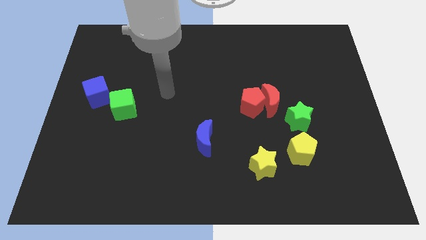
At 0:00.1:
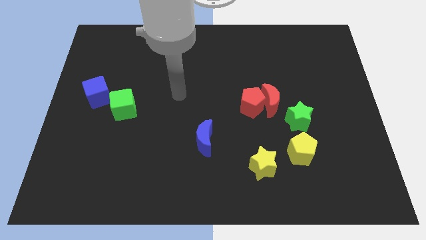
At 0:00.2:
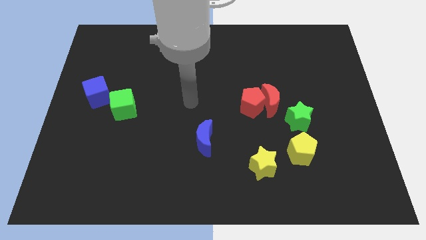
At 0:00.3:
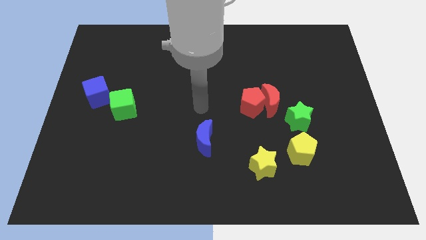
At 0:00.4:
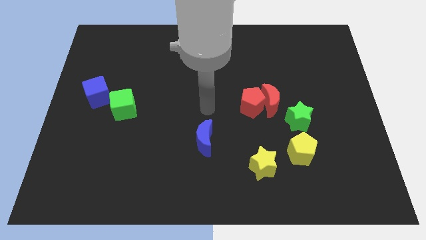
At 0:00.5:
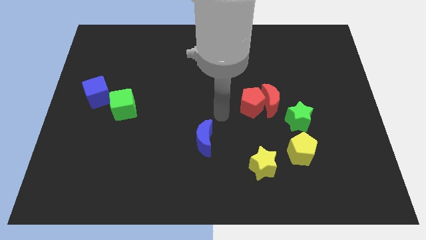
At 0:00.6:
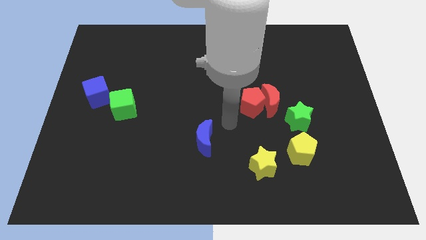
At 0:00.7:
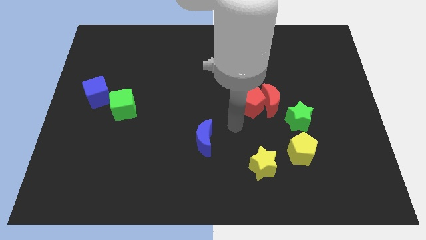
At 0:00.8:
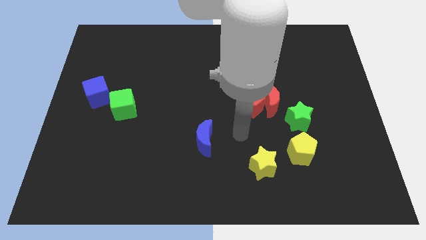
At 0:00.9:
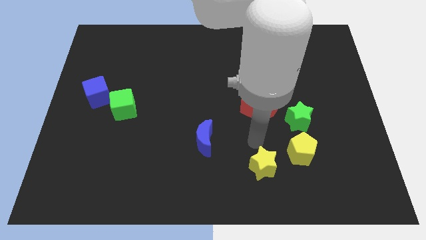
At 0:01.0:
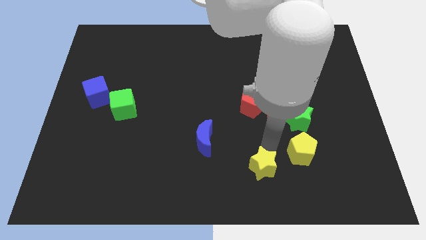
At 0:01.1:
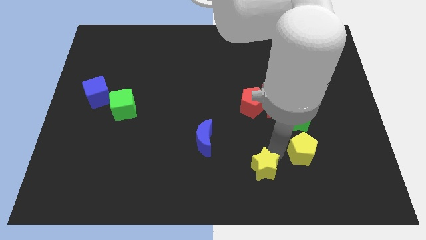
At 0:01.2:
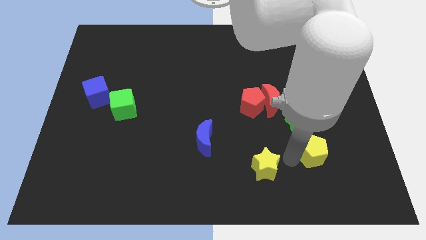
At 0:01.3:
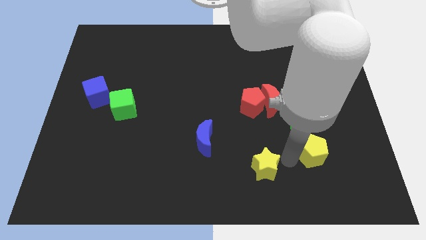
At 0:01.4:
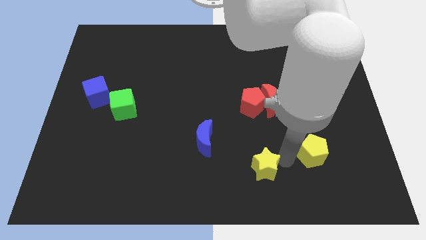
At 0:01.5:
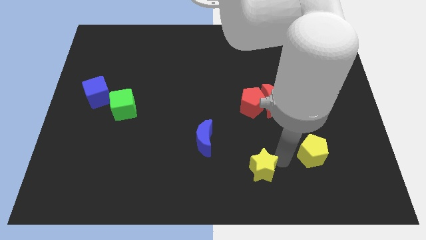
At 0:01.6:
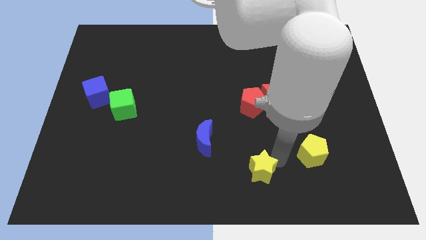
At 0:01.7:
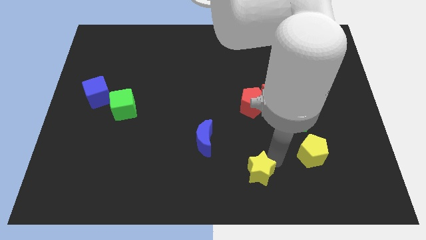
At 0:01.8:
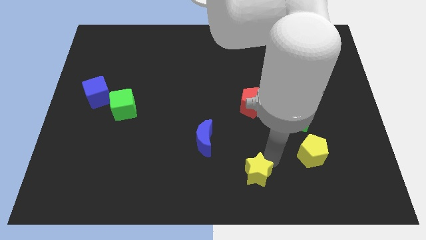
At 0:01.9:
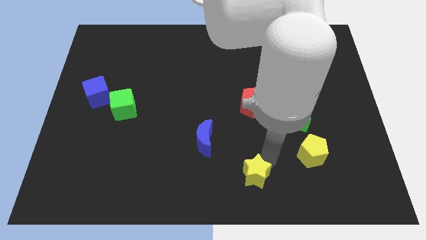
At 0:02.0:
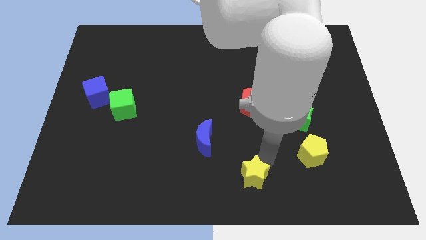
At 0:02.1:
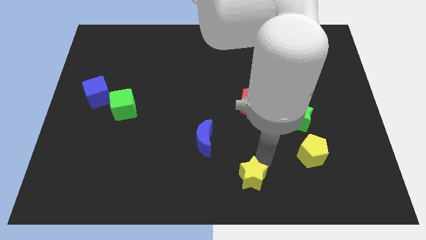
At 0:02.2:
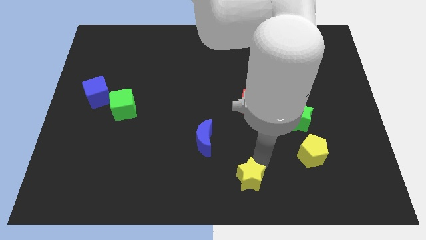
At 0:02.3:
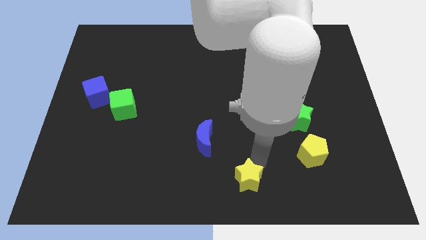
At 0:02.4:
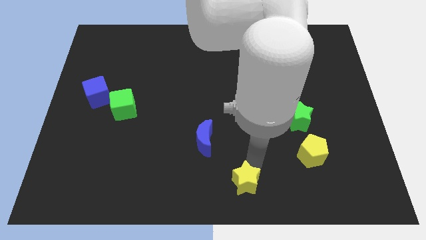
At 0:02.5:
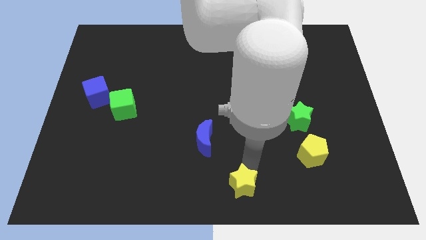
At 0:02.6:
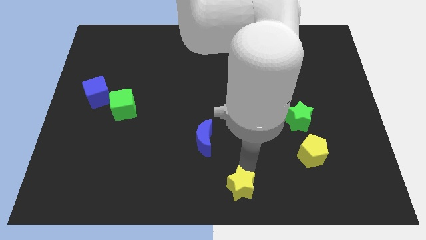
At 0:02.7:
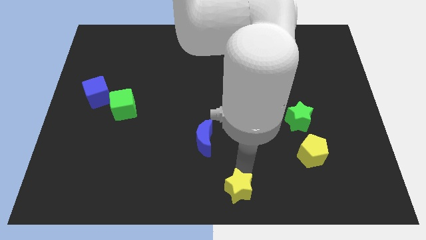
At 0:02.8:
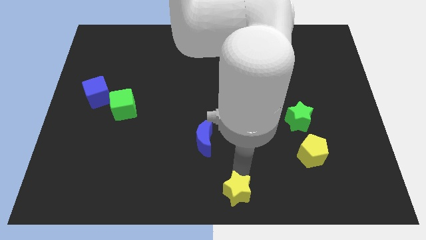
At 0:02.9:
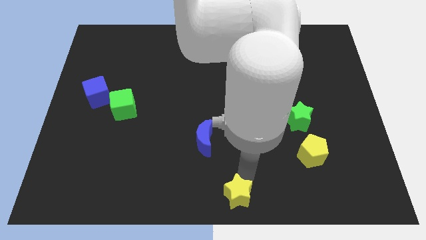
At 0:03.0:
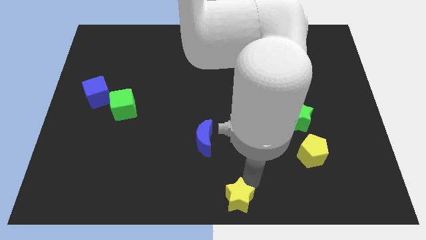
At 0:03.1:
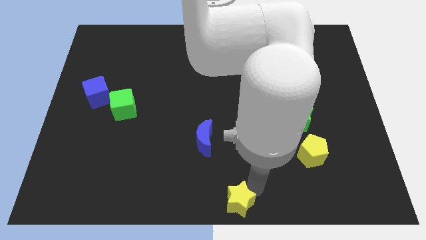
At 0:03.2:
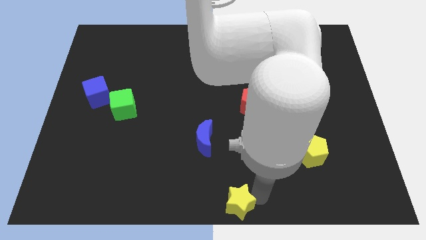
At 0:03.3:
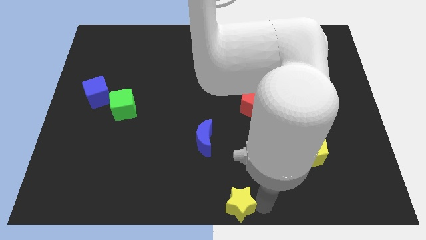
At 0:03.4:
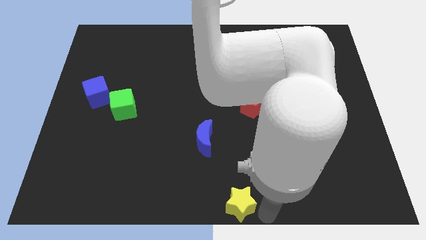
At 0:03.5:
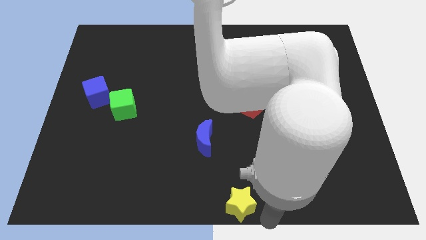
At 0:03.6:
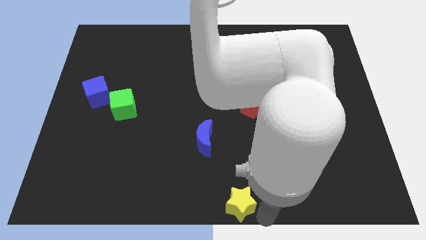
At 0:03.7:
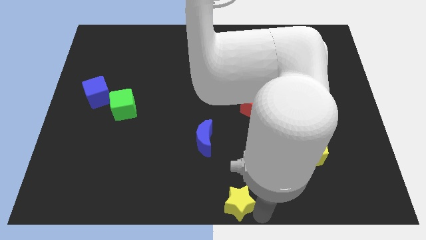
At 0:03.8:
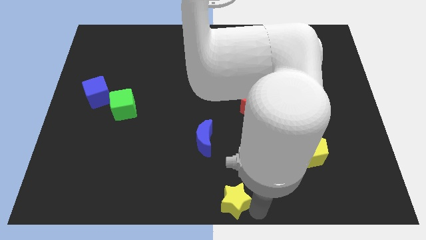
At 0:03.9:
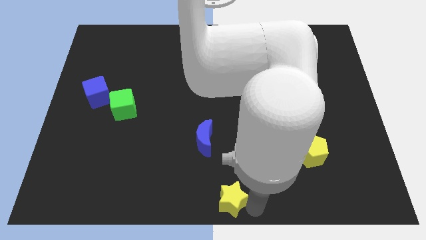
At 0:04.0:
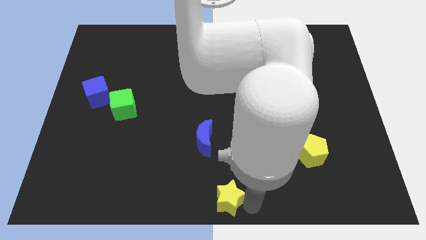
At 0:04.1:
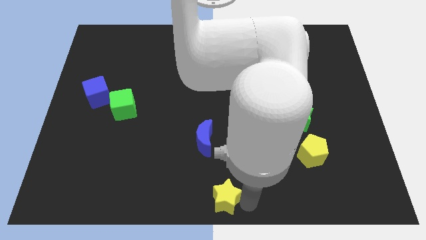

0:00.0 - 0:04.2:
move the yellow star below the blue moon

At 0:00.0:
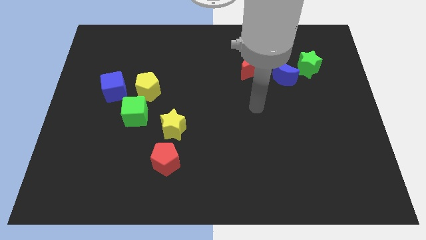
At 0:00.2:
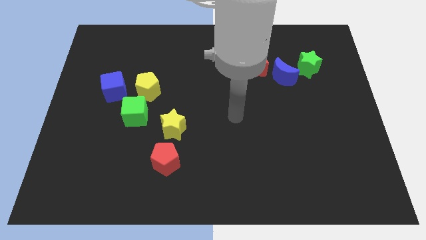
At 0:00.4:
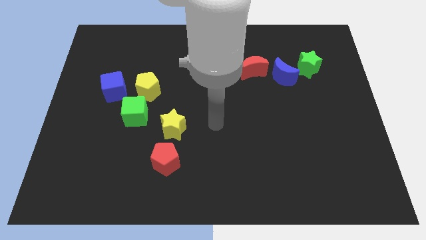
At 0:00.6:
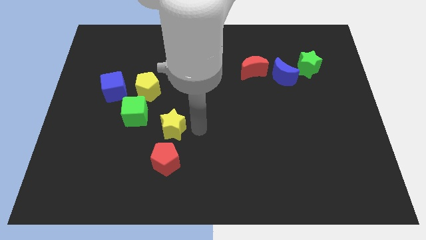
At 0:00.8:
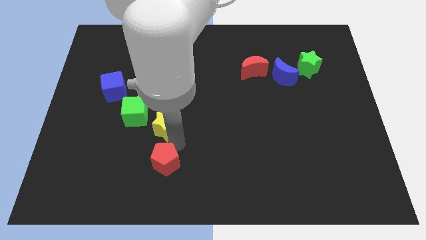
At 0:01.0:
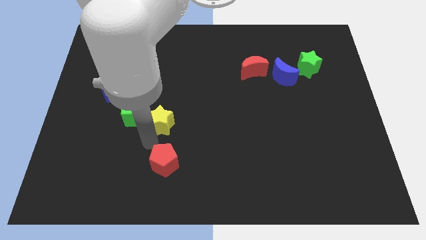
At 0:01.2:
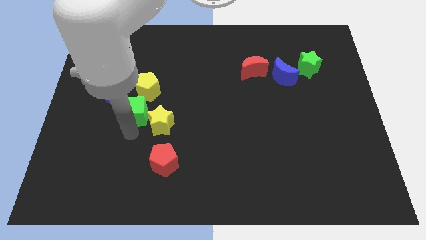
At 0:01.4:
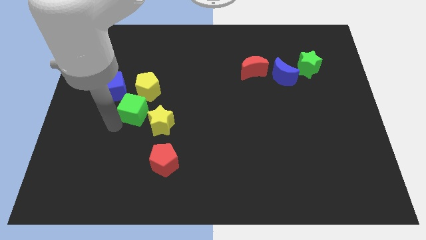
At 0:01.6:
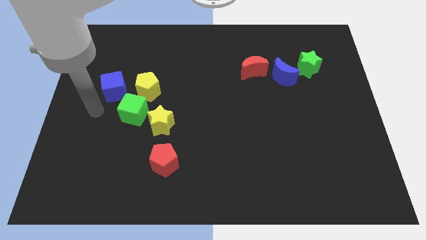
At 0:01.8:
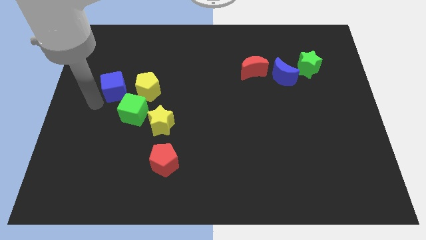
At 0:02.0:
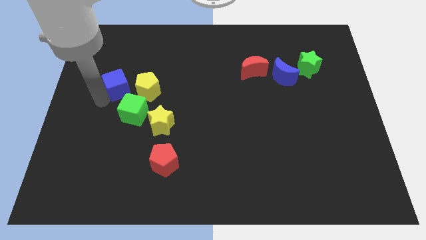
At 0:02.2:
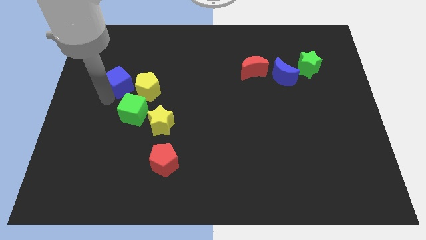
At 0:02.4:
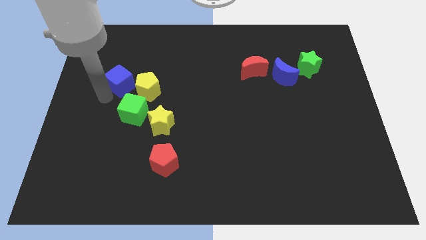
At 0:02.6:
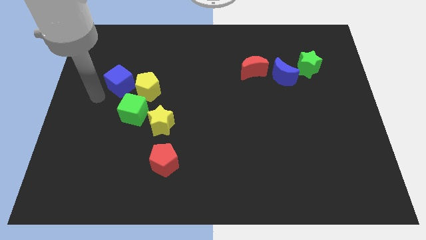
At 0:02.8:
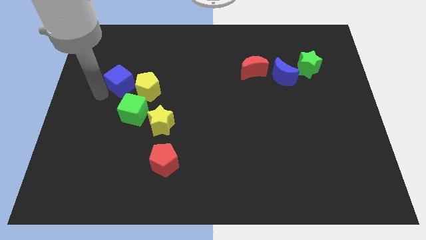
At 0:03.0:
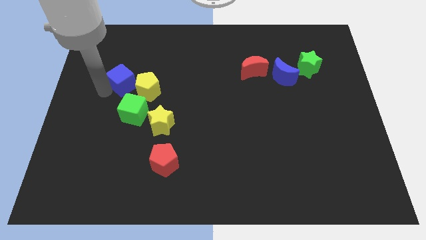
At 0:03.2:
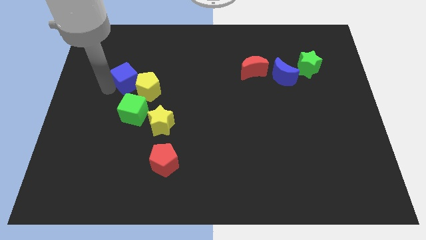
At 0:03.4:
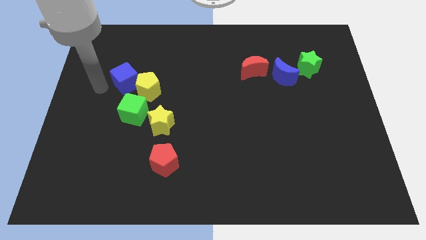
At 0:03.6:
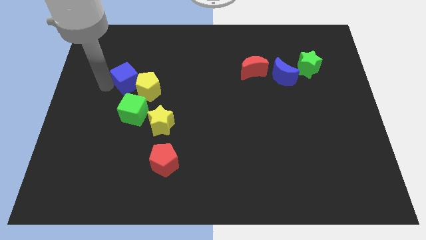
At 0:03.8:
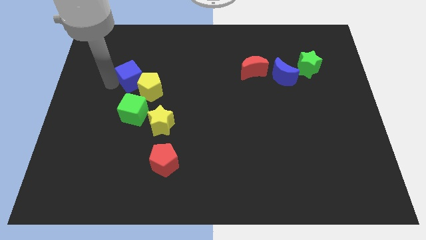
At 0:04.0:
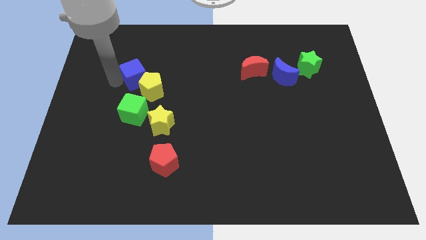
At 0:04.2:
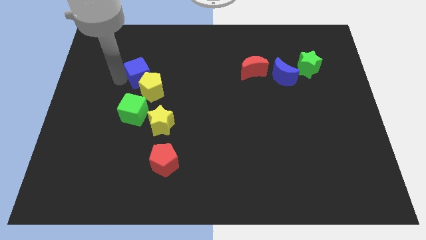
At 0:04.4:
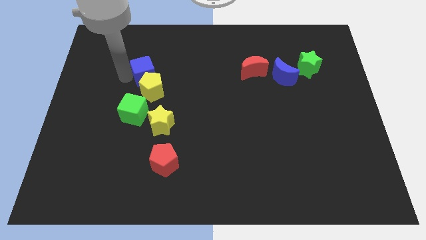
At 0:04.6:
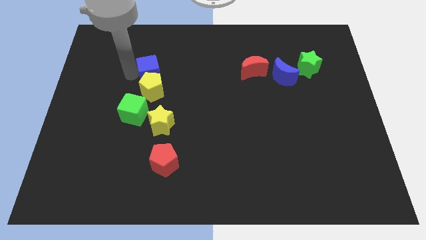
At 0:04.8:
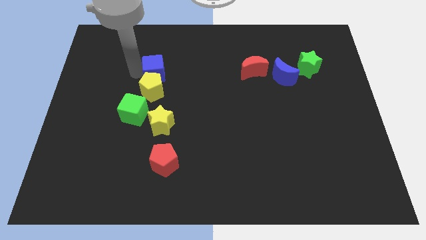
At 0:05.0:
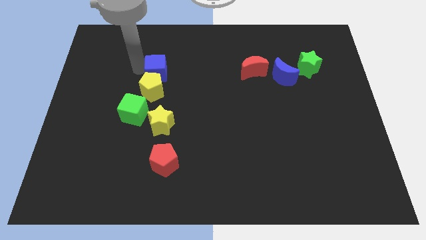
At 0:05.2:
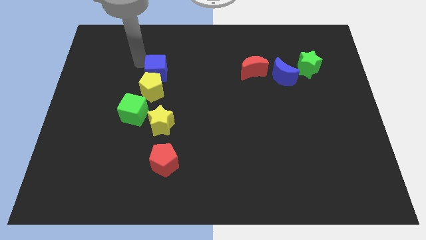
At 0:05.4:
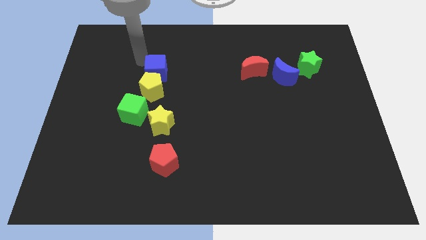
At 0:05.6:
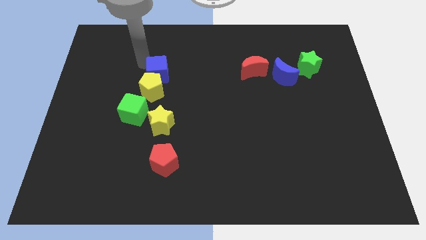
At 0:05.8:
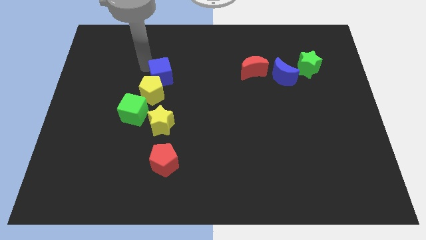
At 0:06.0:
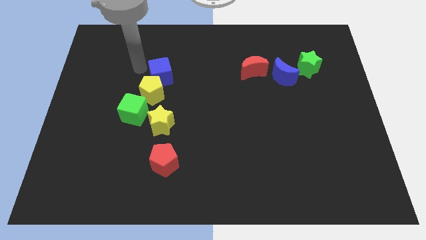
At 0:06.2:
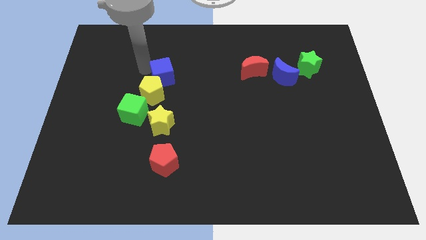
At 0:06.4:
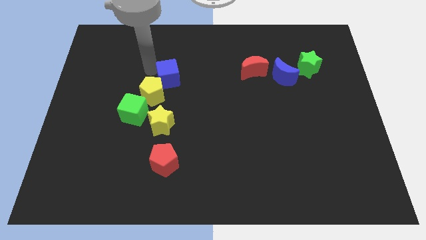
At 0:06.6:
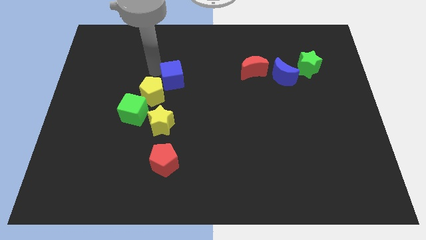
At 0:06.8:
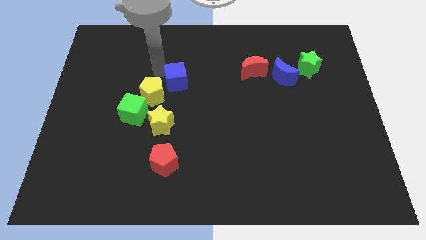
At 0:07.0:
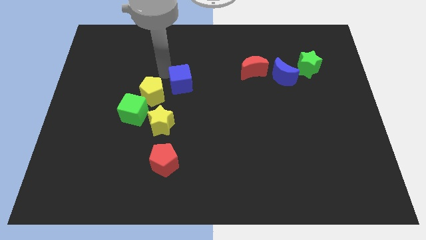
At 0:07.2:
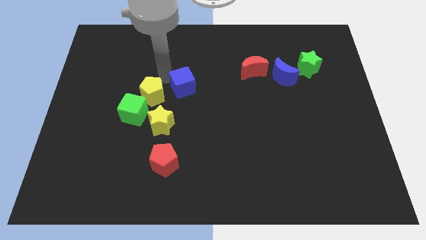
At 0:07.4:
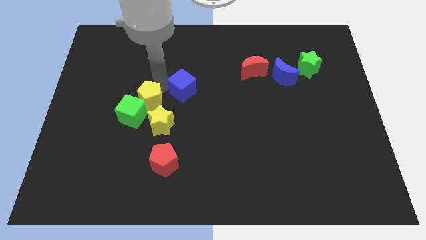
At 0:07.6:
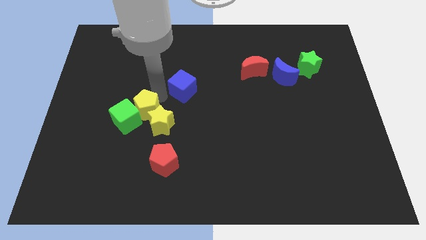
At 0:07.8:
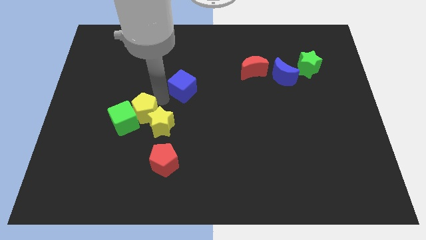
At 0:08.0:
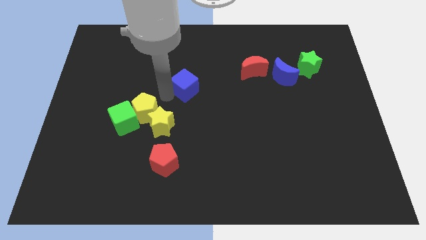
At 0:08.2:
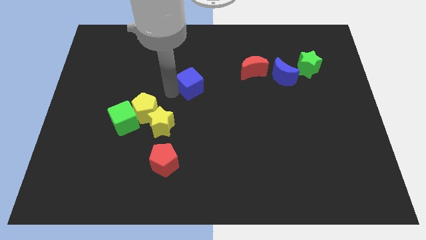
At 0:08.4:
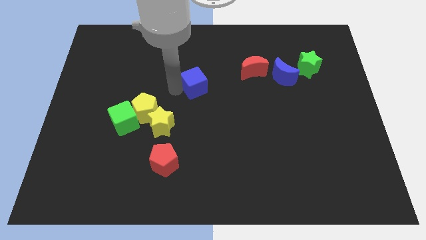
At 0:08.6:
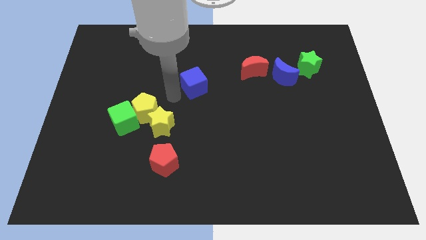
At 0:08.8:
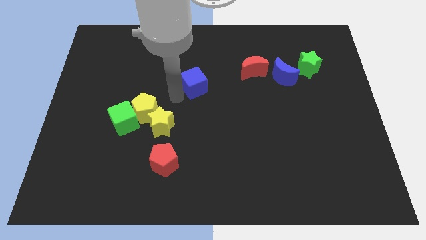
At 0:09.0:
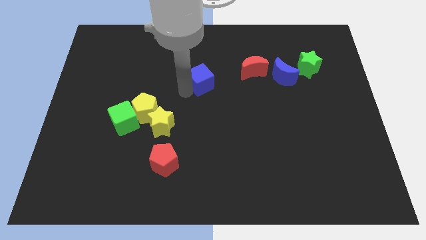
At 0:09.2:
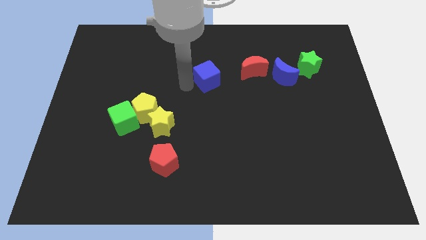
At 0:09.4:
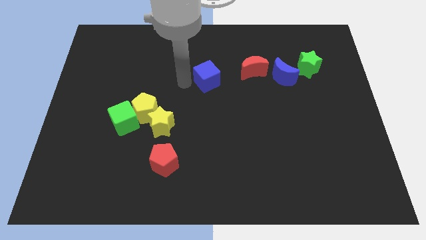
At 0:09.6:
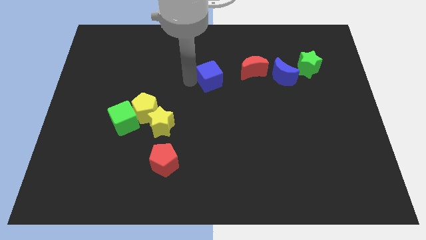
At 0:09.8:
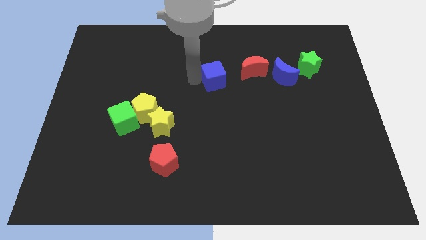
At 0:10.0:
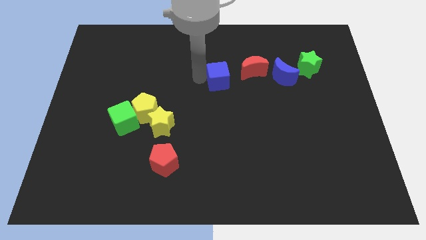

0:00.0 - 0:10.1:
slide the blue cube to the left of the blue moon
